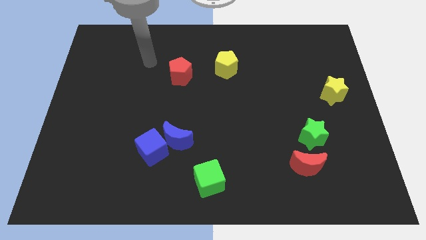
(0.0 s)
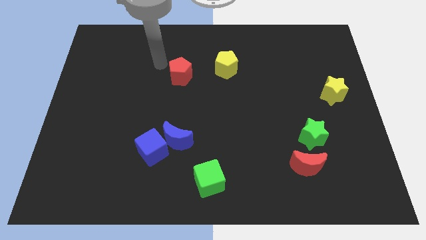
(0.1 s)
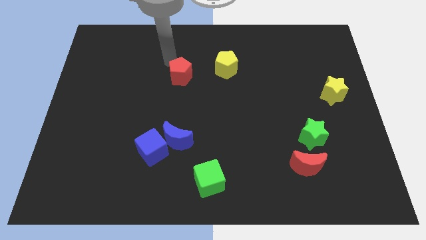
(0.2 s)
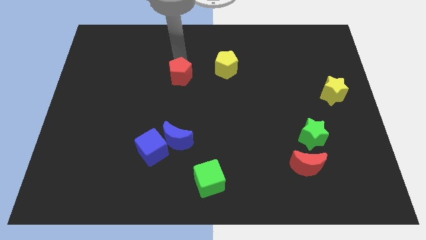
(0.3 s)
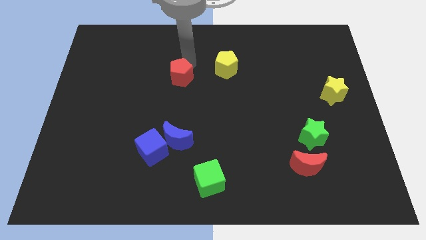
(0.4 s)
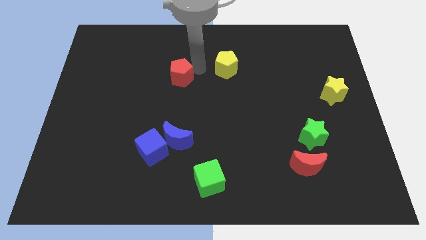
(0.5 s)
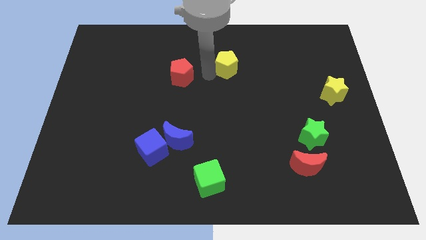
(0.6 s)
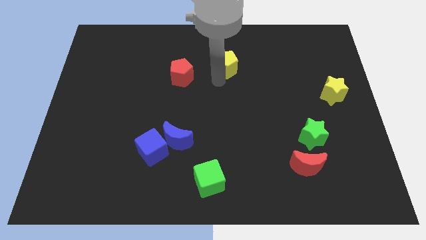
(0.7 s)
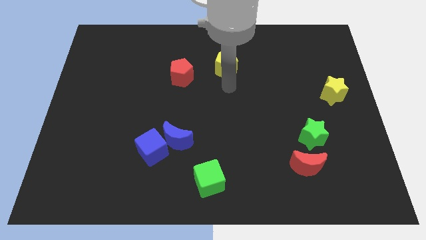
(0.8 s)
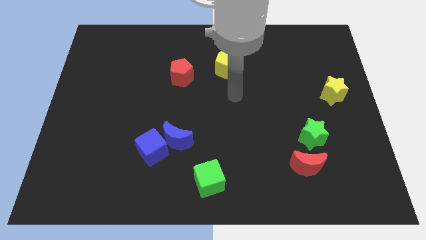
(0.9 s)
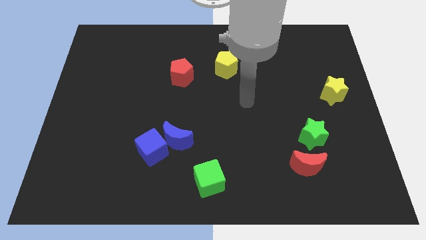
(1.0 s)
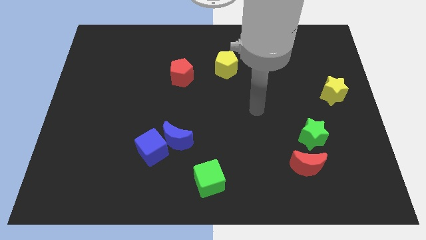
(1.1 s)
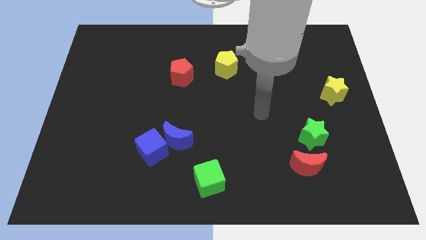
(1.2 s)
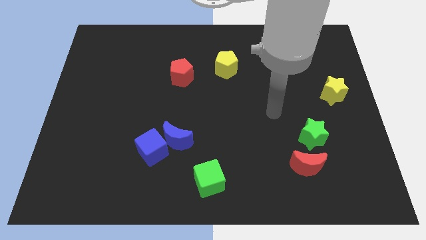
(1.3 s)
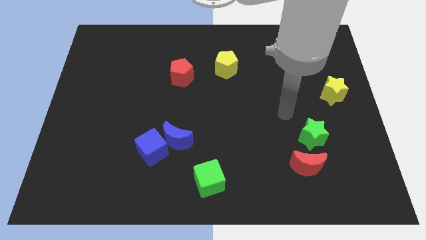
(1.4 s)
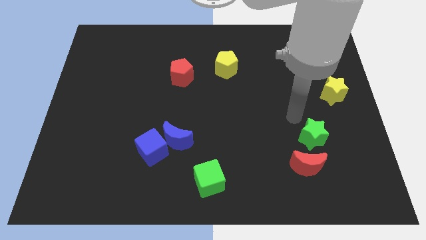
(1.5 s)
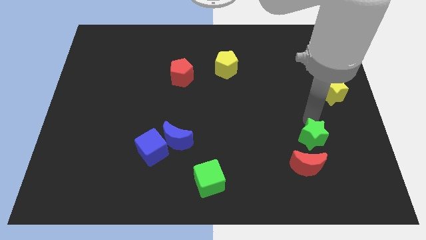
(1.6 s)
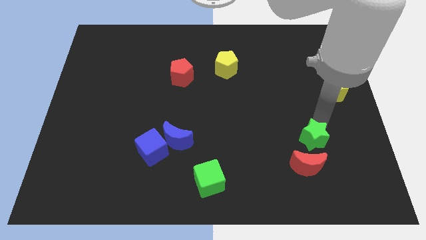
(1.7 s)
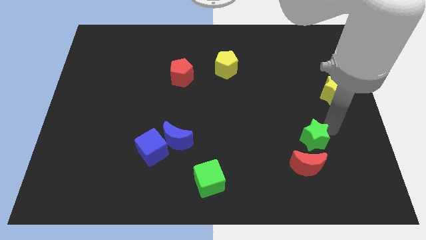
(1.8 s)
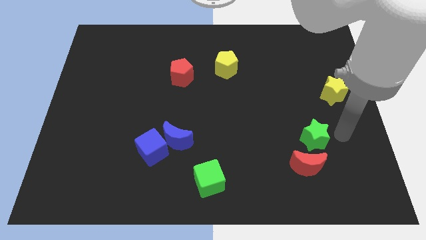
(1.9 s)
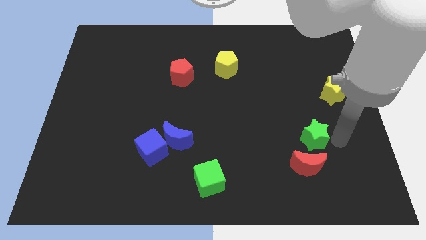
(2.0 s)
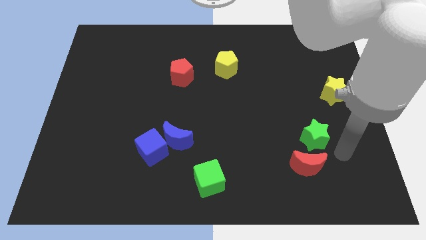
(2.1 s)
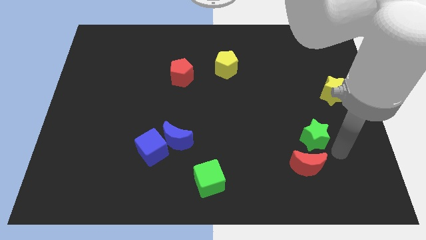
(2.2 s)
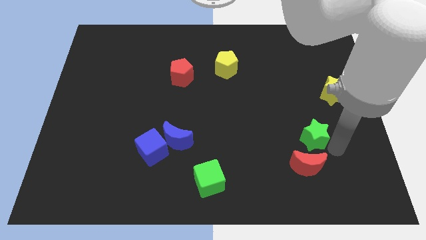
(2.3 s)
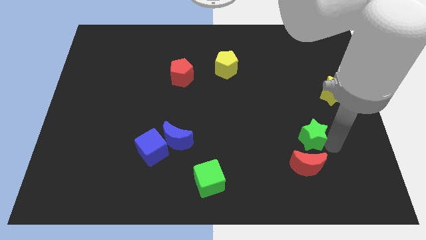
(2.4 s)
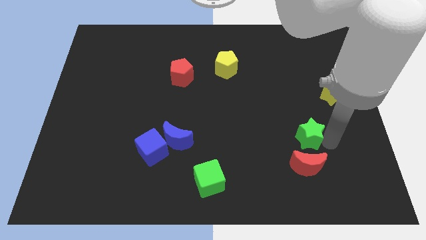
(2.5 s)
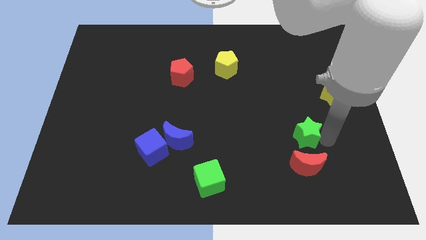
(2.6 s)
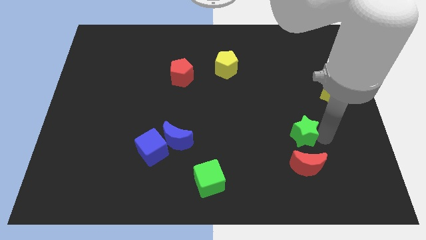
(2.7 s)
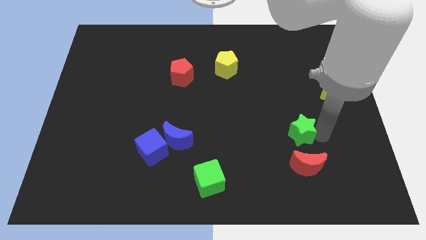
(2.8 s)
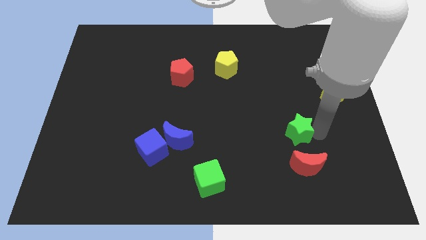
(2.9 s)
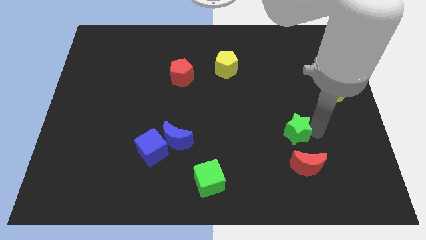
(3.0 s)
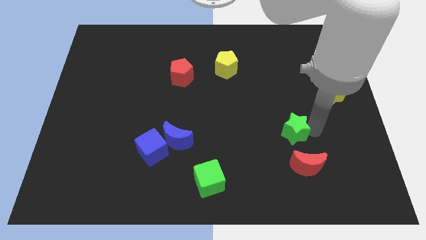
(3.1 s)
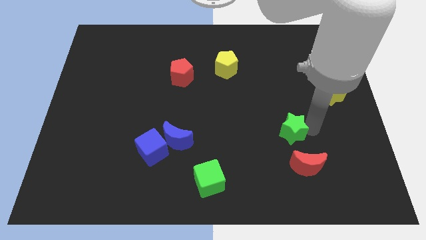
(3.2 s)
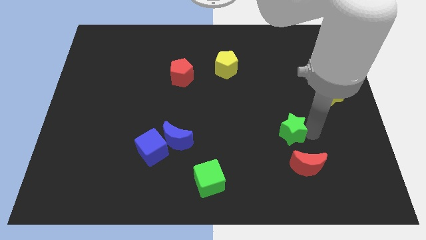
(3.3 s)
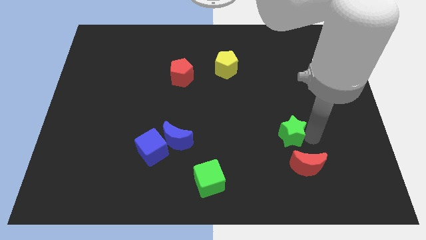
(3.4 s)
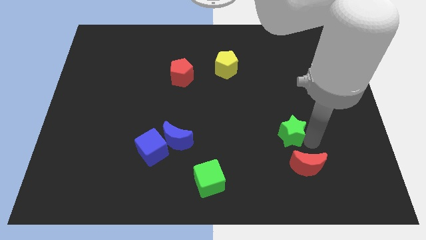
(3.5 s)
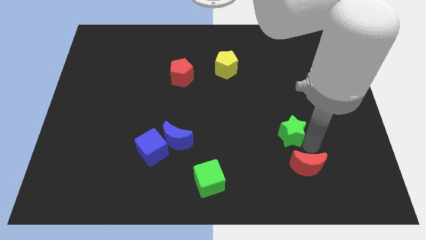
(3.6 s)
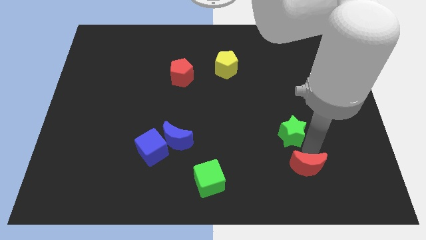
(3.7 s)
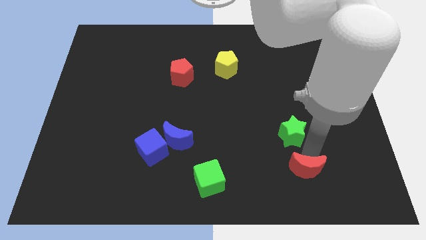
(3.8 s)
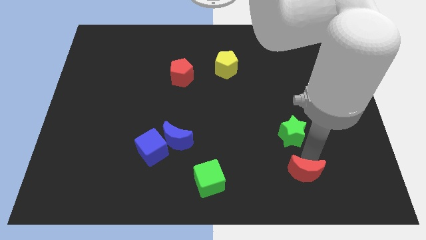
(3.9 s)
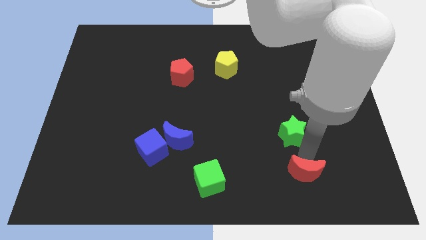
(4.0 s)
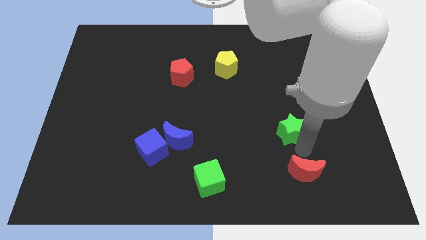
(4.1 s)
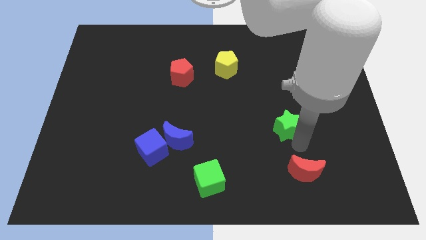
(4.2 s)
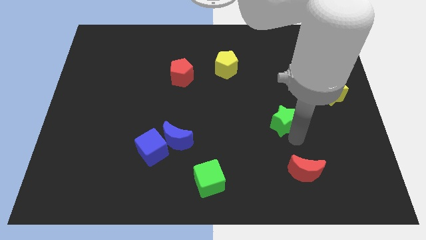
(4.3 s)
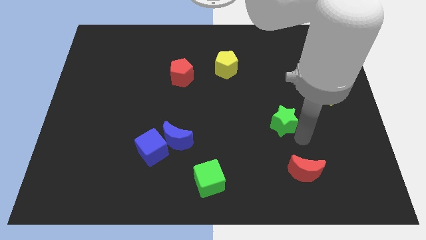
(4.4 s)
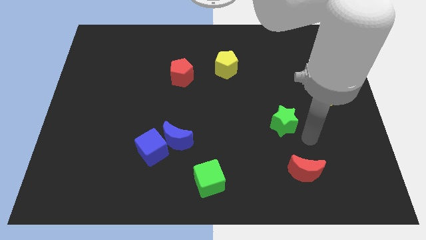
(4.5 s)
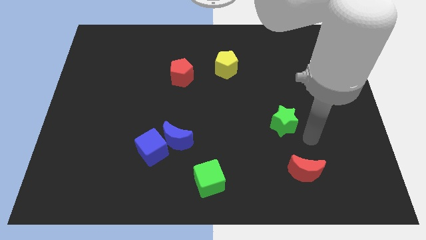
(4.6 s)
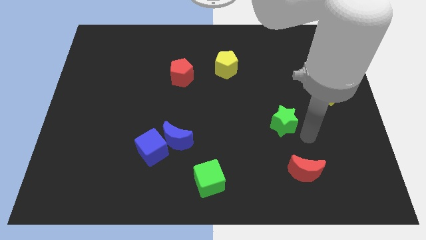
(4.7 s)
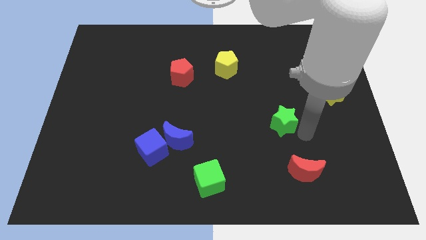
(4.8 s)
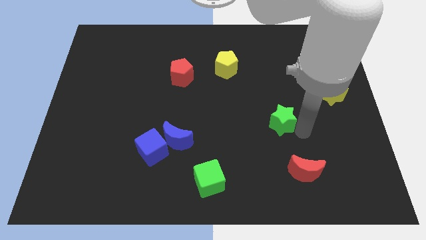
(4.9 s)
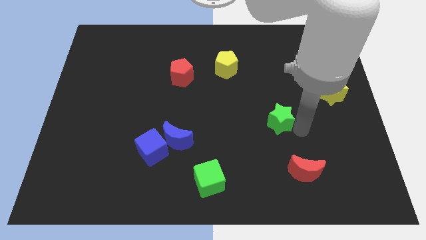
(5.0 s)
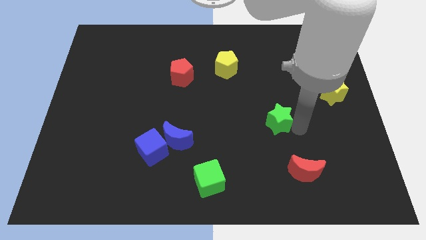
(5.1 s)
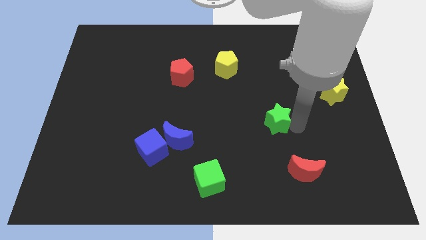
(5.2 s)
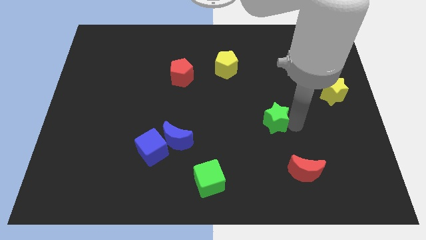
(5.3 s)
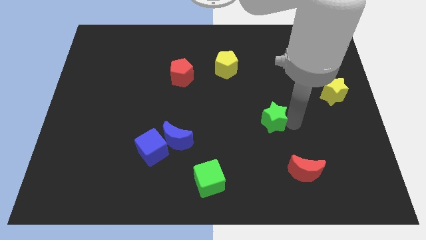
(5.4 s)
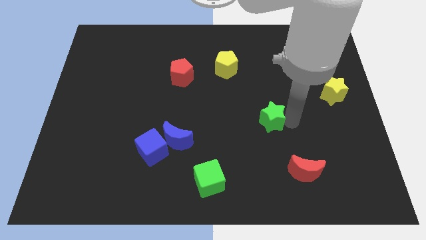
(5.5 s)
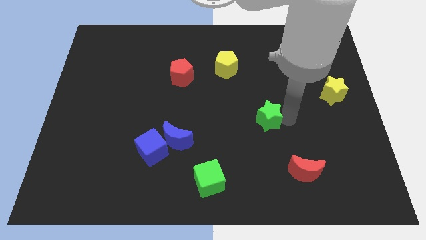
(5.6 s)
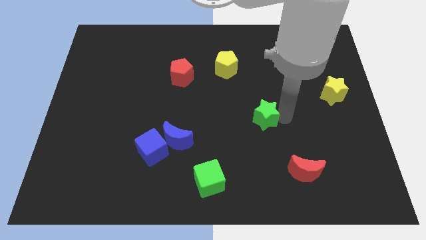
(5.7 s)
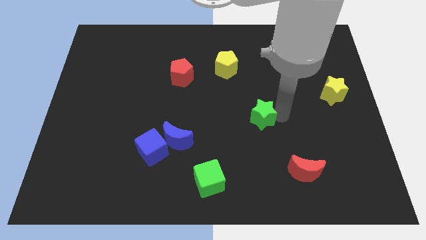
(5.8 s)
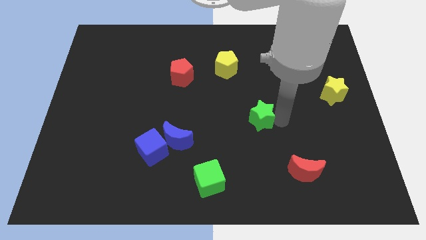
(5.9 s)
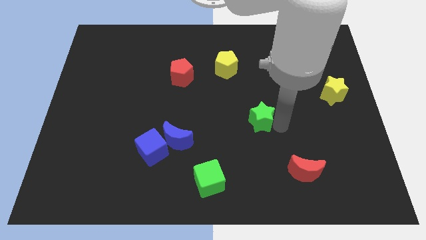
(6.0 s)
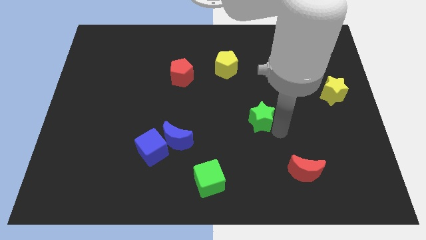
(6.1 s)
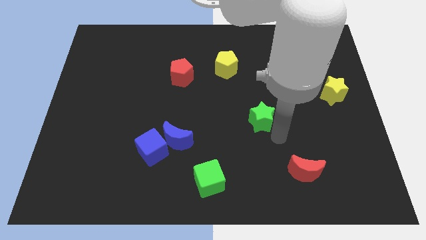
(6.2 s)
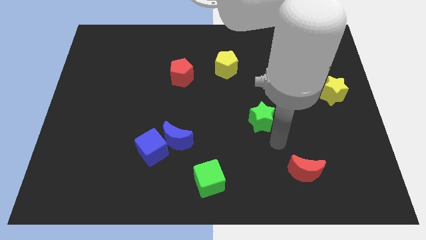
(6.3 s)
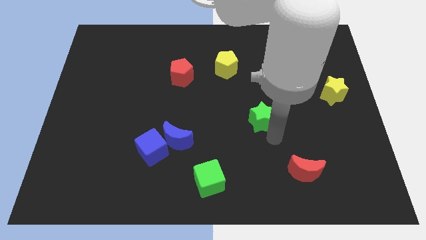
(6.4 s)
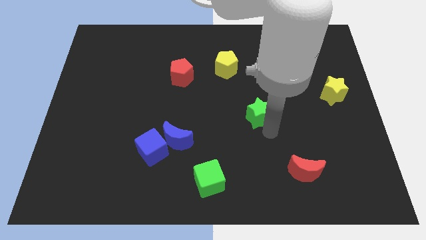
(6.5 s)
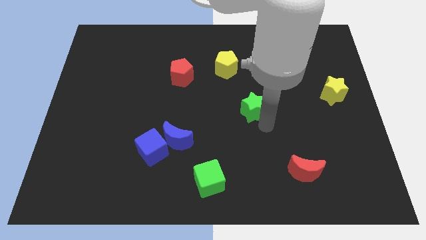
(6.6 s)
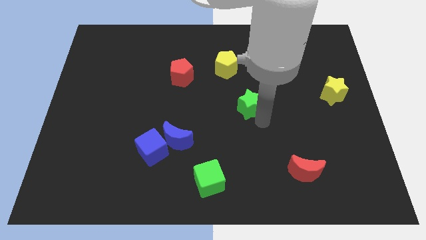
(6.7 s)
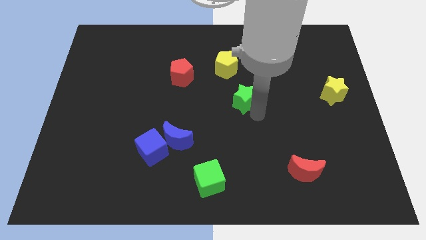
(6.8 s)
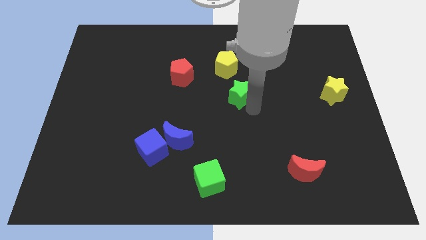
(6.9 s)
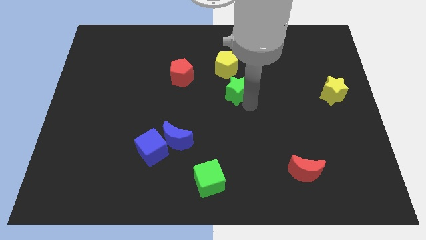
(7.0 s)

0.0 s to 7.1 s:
move the green star diagonally upwards and left

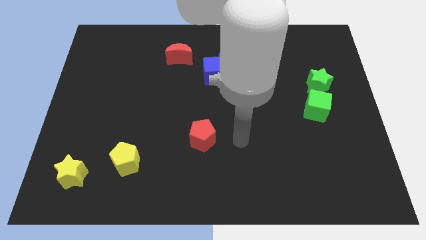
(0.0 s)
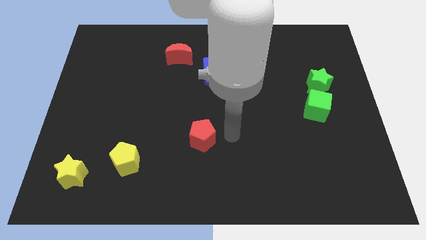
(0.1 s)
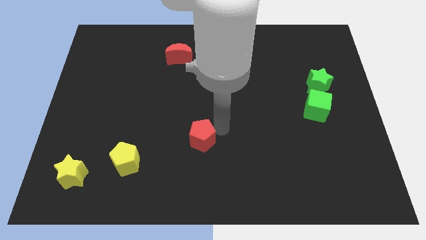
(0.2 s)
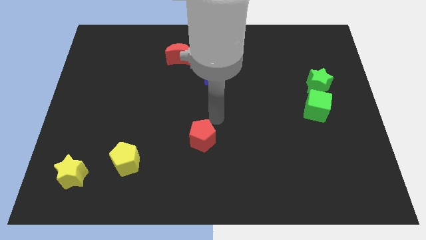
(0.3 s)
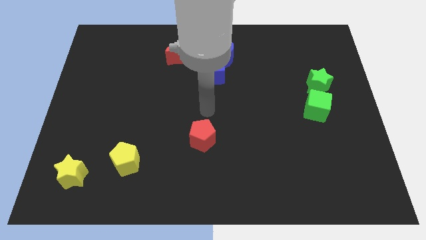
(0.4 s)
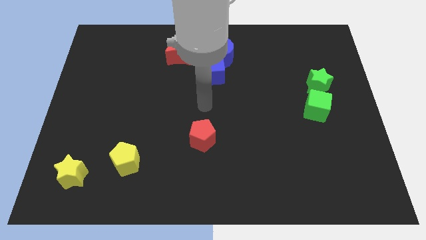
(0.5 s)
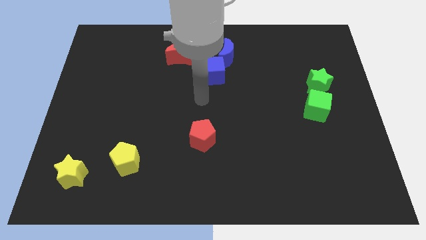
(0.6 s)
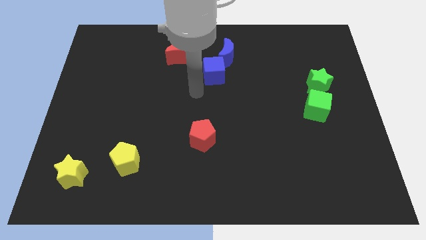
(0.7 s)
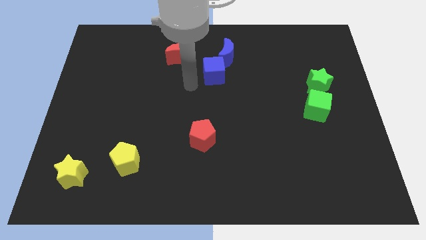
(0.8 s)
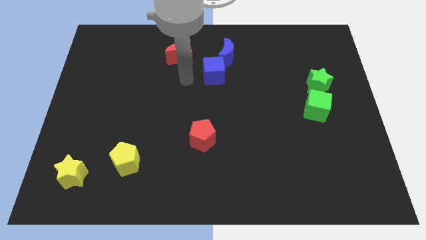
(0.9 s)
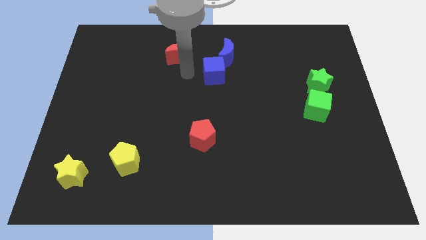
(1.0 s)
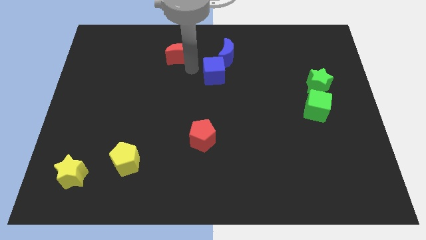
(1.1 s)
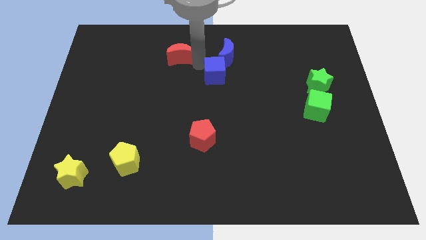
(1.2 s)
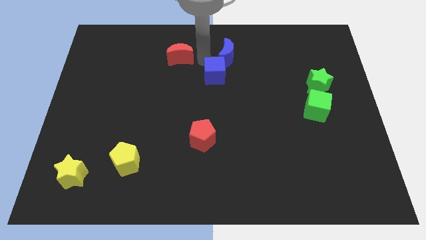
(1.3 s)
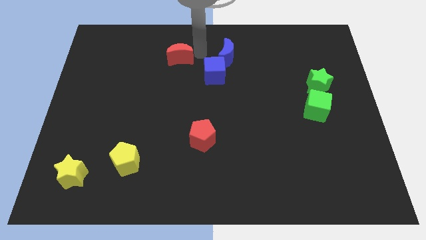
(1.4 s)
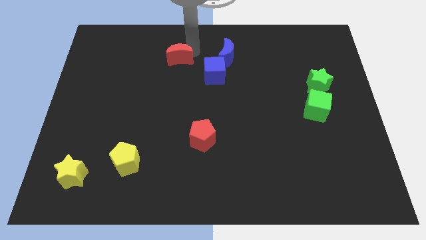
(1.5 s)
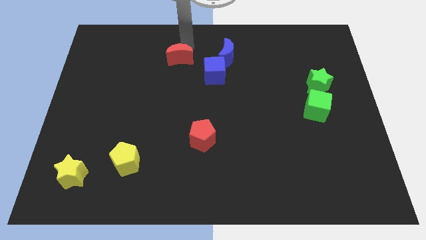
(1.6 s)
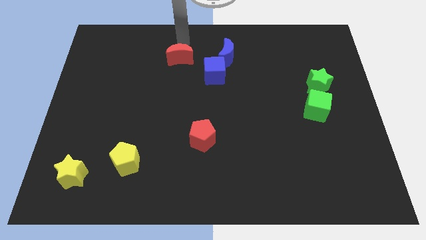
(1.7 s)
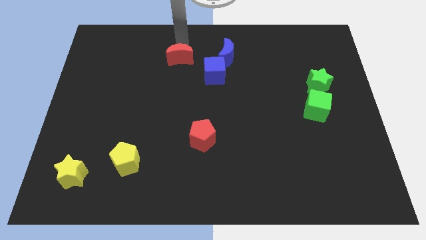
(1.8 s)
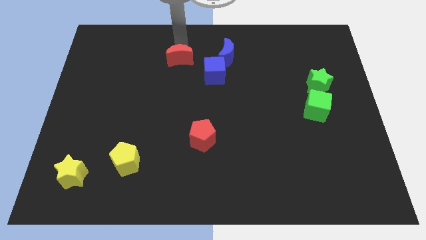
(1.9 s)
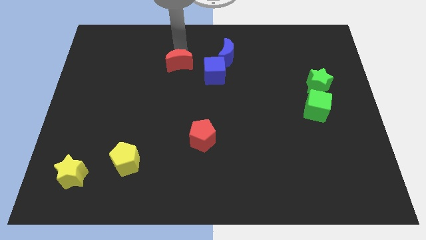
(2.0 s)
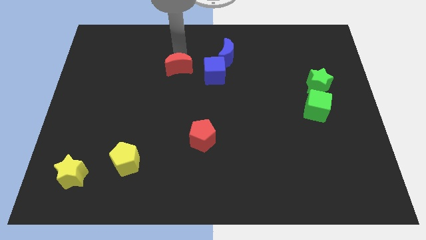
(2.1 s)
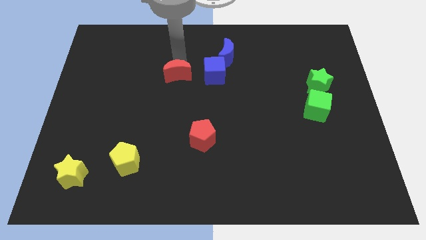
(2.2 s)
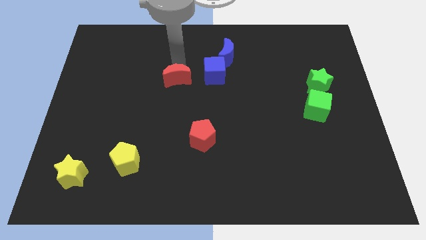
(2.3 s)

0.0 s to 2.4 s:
slide the red moon down somewhat
